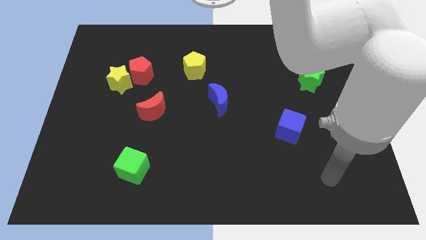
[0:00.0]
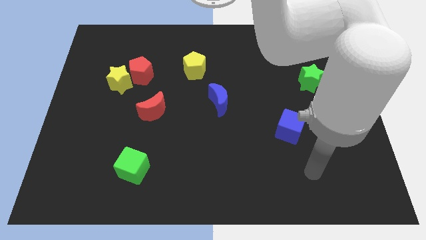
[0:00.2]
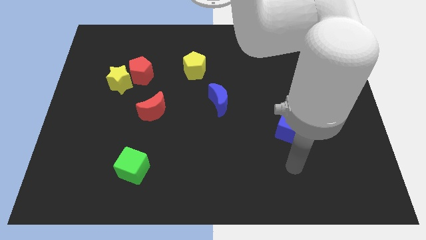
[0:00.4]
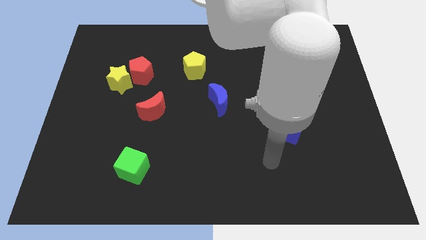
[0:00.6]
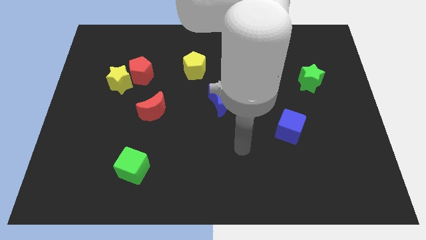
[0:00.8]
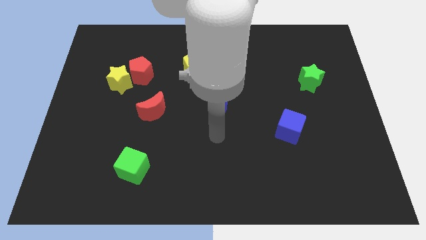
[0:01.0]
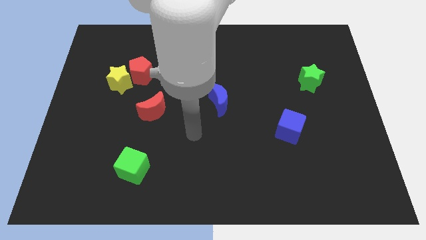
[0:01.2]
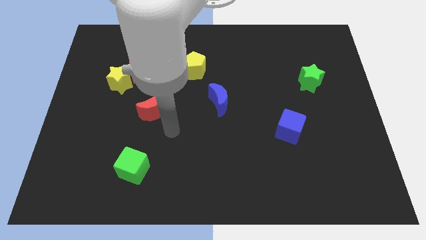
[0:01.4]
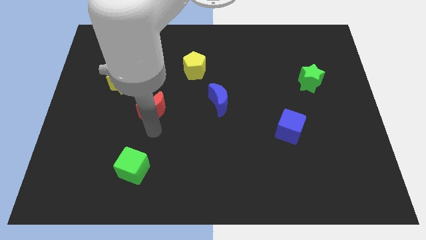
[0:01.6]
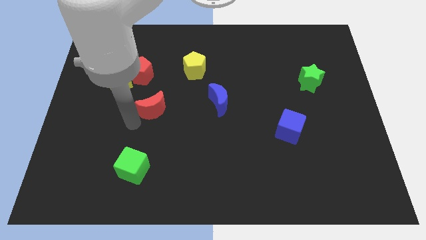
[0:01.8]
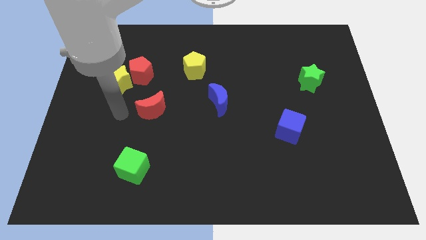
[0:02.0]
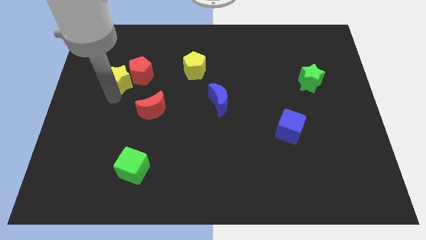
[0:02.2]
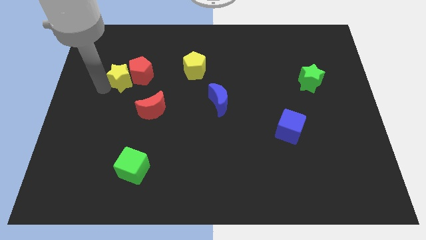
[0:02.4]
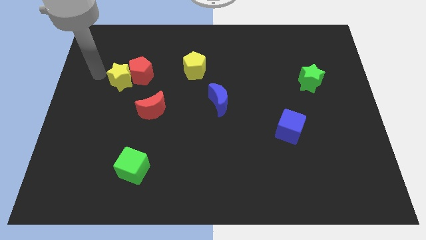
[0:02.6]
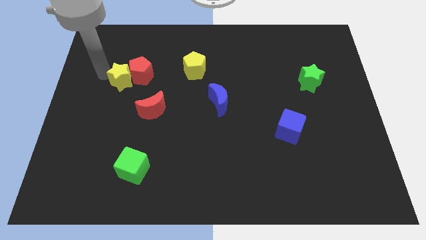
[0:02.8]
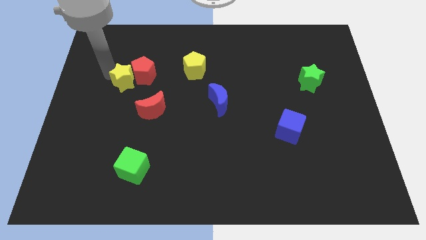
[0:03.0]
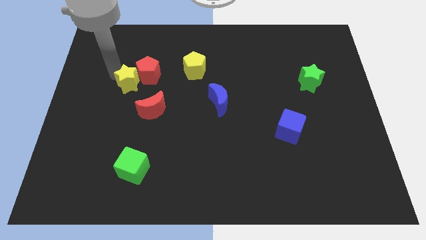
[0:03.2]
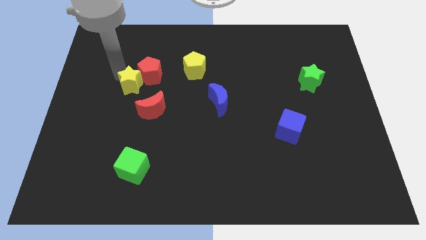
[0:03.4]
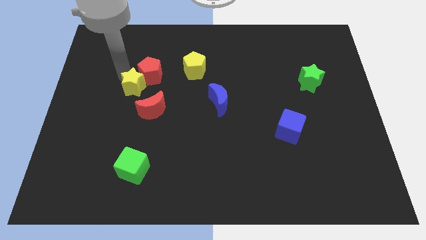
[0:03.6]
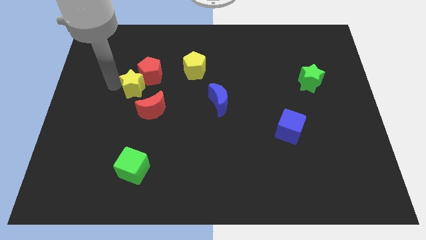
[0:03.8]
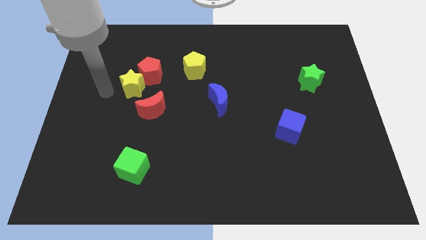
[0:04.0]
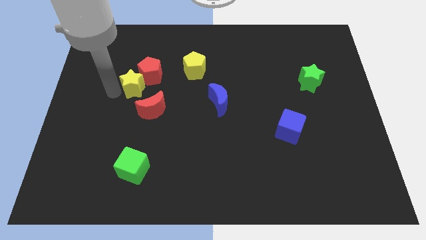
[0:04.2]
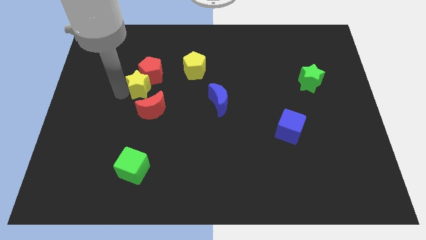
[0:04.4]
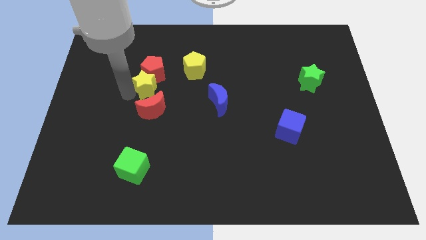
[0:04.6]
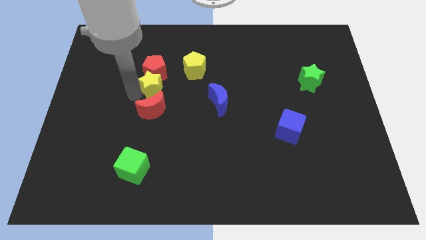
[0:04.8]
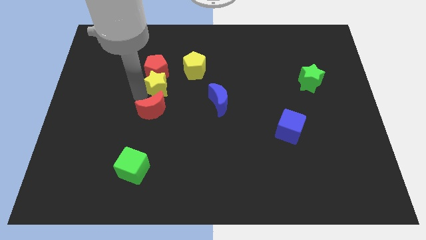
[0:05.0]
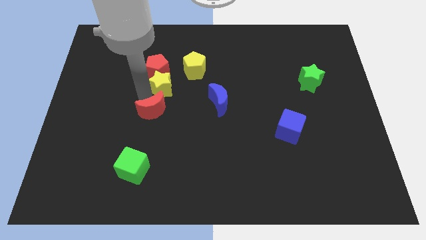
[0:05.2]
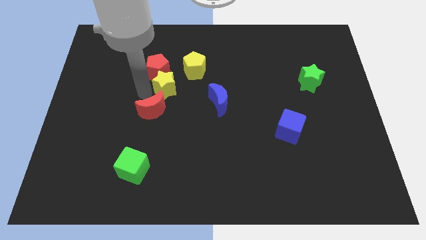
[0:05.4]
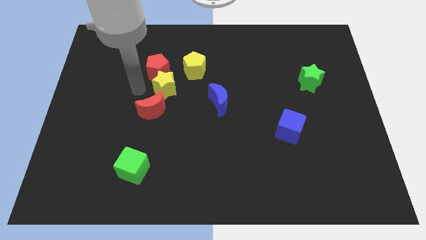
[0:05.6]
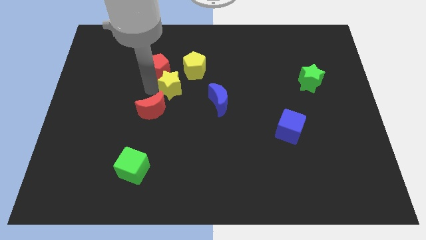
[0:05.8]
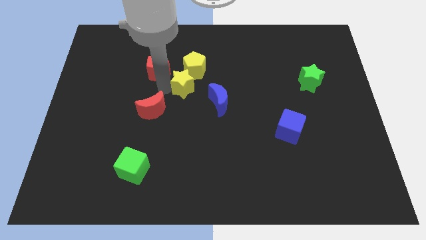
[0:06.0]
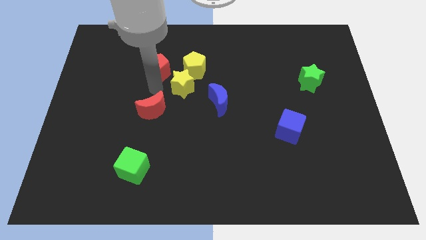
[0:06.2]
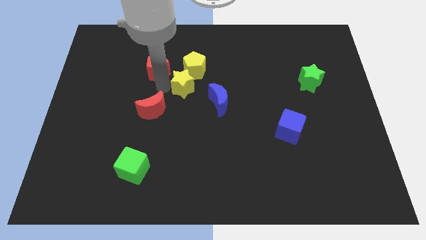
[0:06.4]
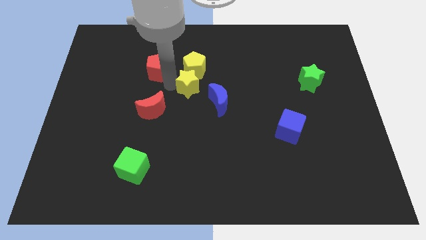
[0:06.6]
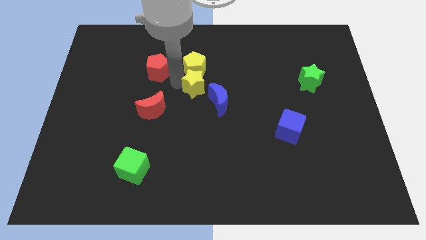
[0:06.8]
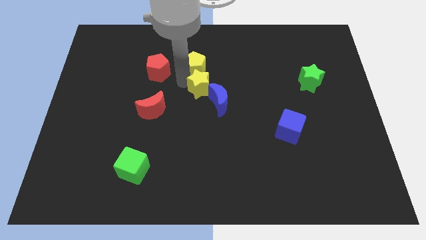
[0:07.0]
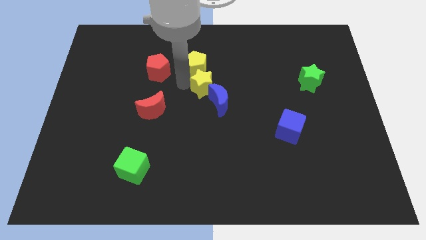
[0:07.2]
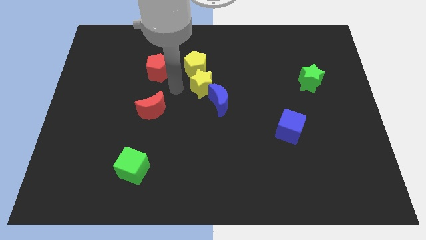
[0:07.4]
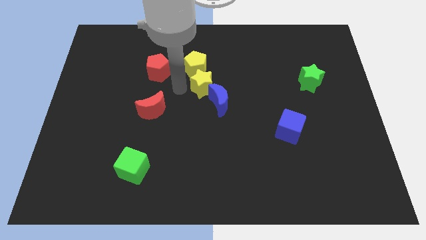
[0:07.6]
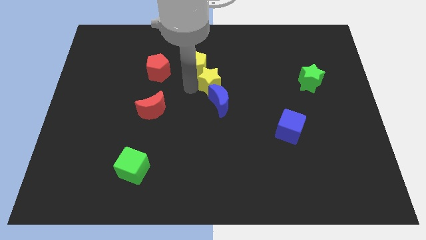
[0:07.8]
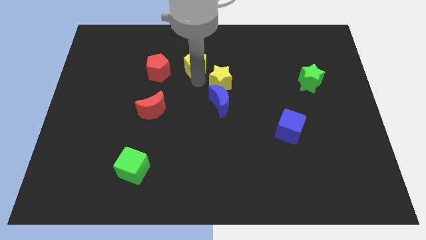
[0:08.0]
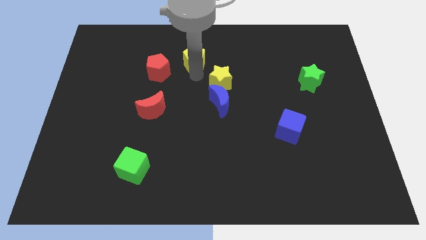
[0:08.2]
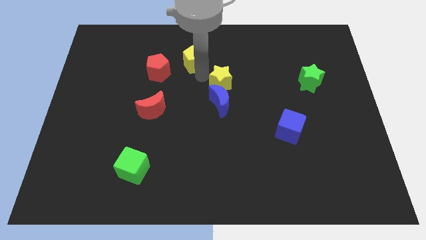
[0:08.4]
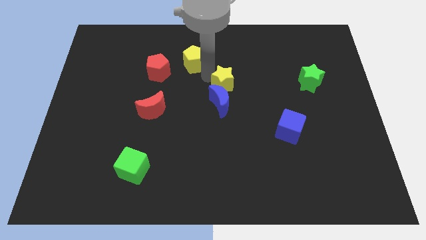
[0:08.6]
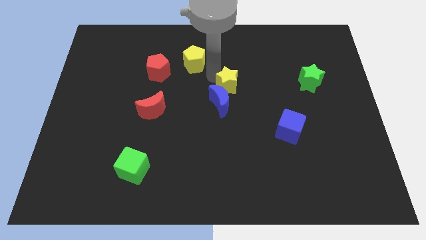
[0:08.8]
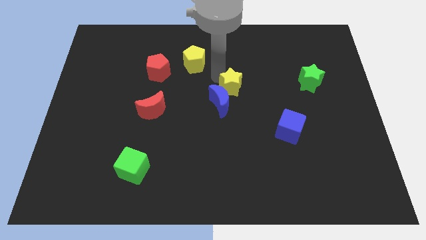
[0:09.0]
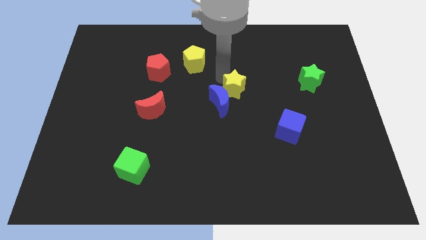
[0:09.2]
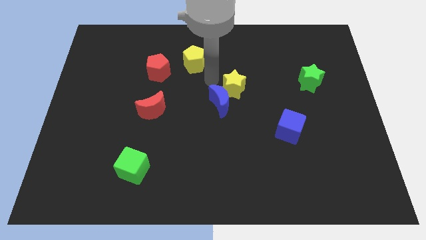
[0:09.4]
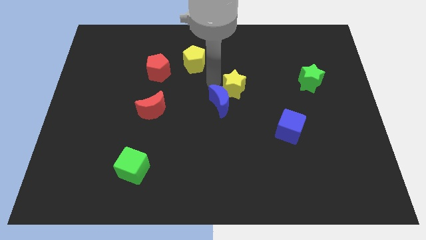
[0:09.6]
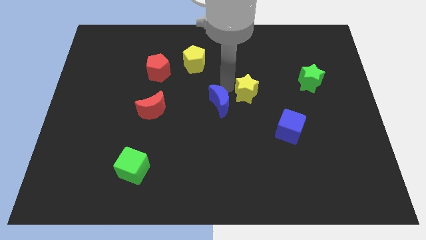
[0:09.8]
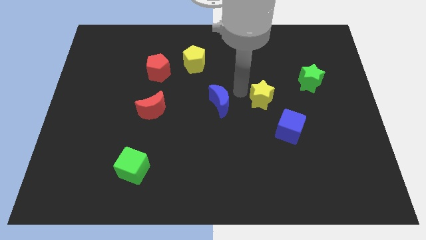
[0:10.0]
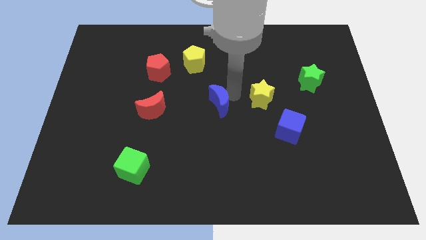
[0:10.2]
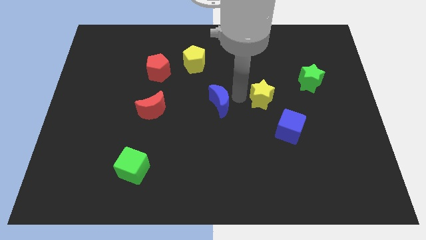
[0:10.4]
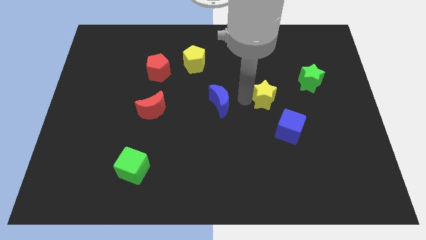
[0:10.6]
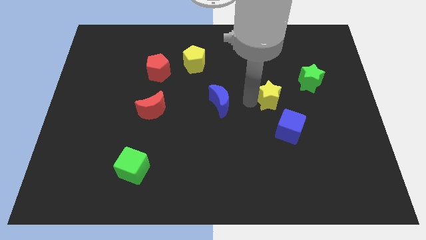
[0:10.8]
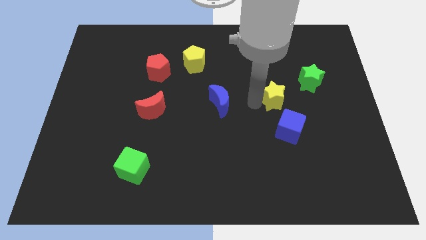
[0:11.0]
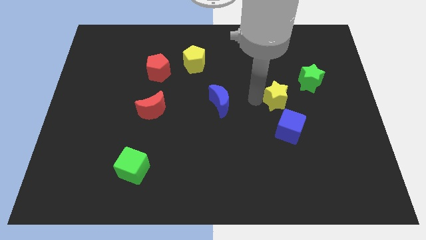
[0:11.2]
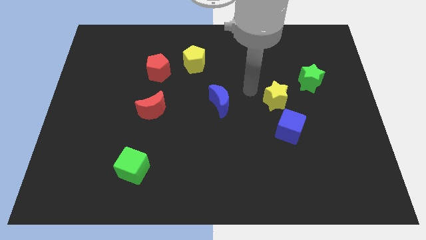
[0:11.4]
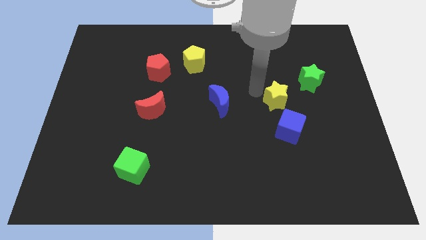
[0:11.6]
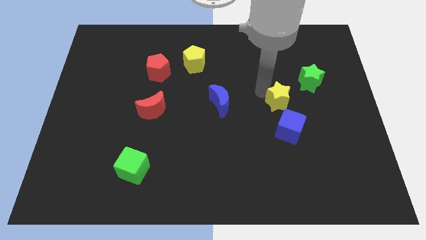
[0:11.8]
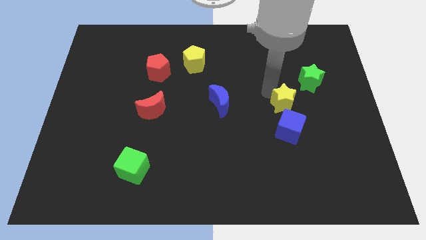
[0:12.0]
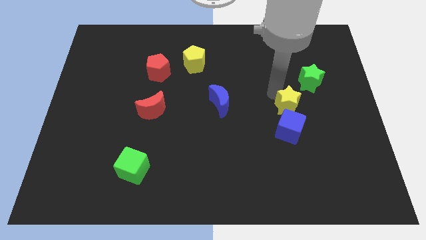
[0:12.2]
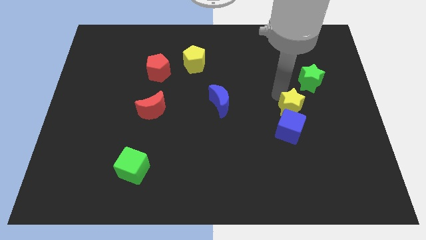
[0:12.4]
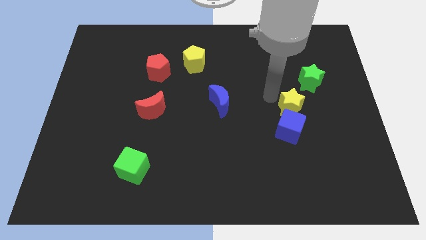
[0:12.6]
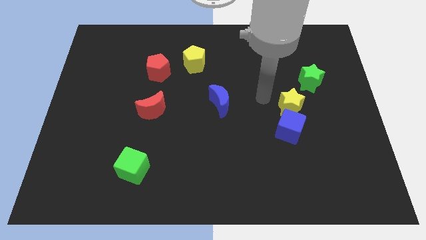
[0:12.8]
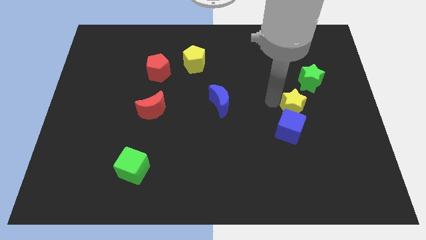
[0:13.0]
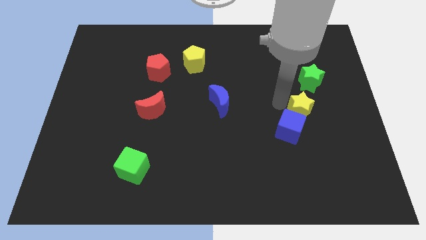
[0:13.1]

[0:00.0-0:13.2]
push the yellow star to the bottom of the green star
